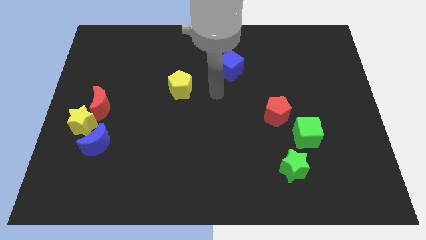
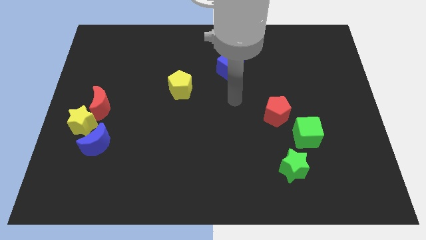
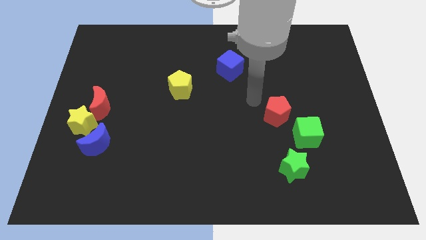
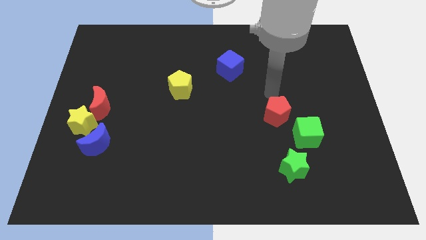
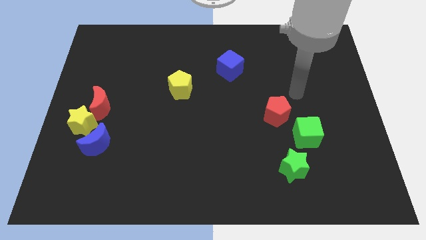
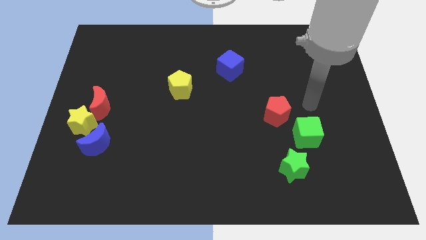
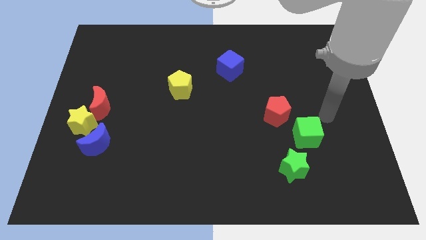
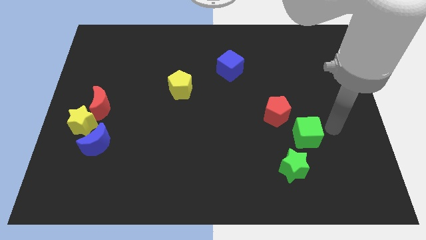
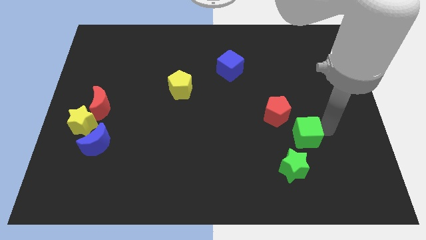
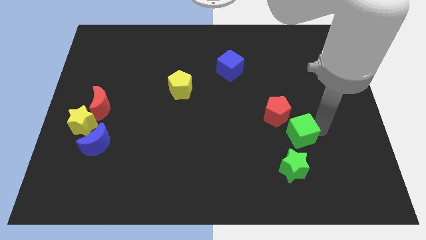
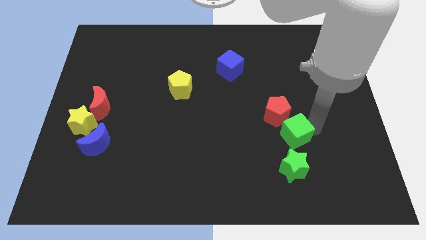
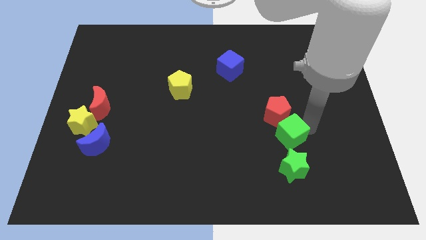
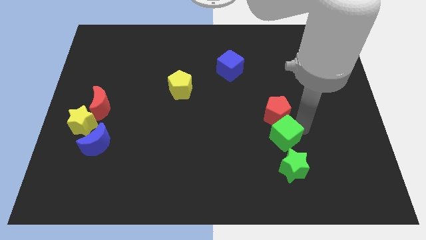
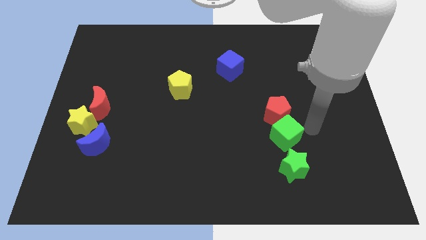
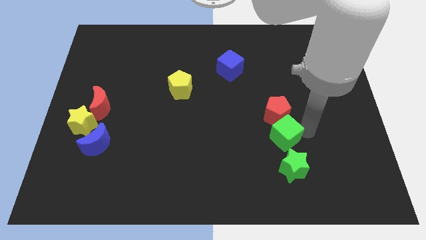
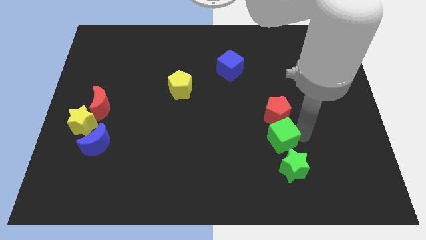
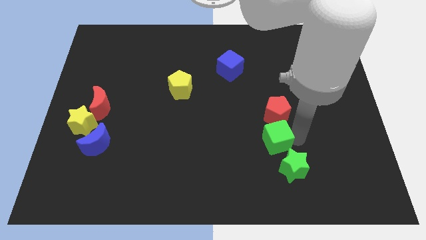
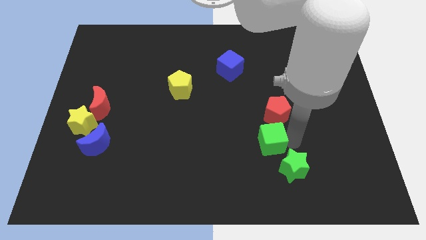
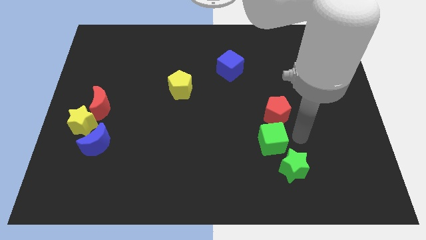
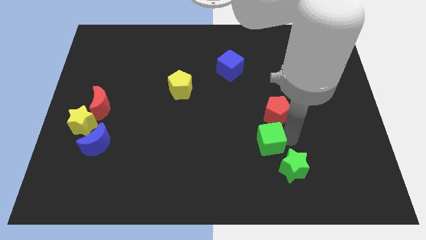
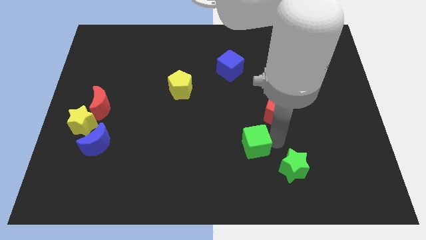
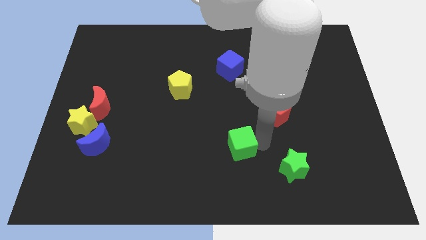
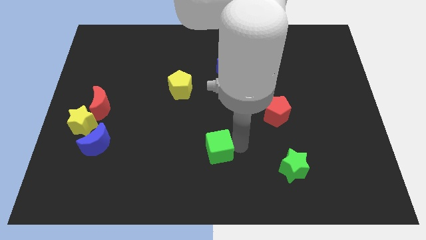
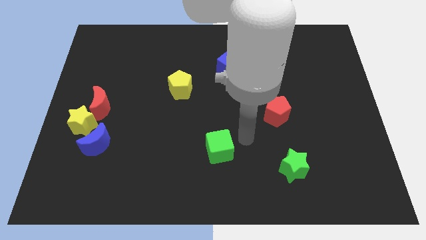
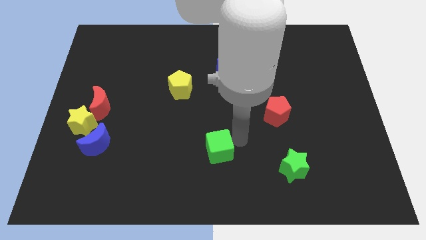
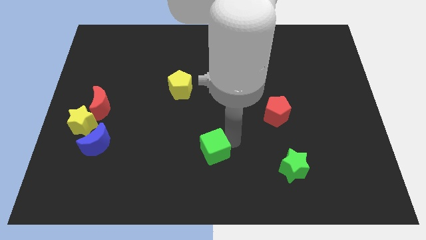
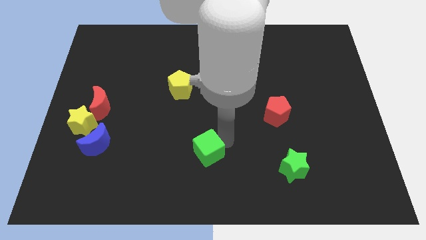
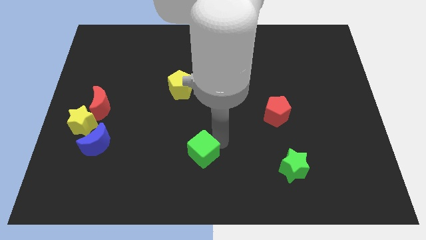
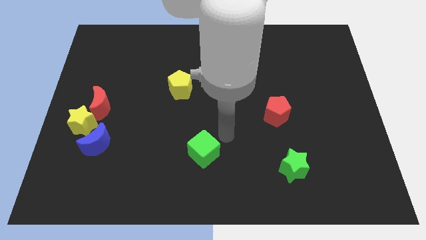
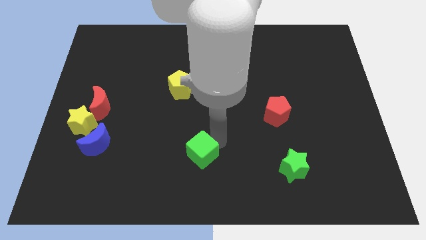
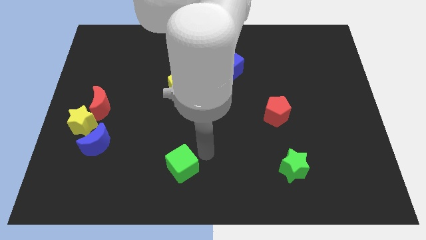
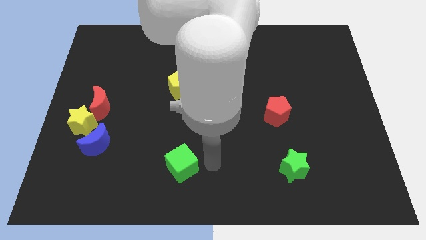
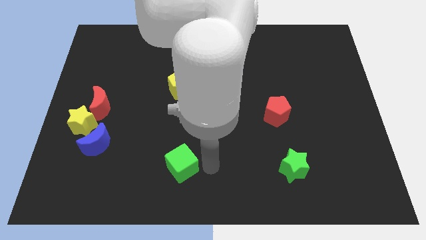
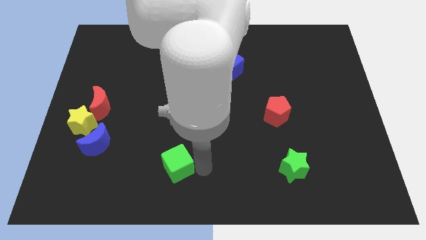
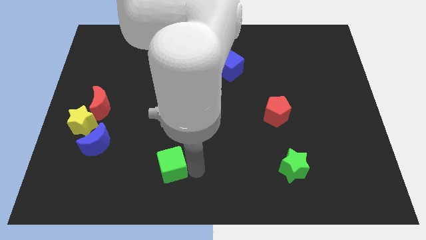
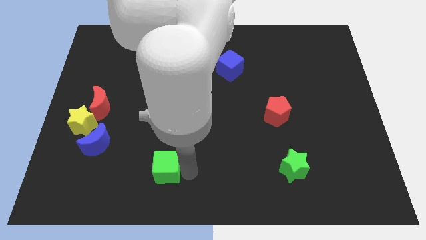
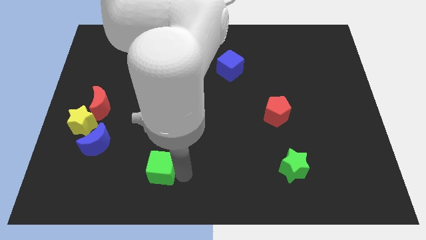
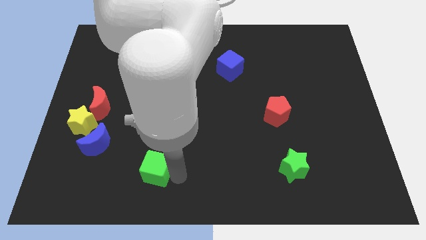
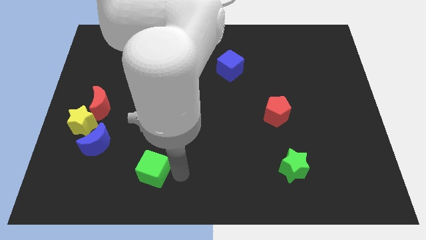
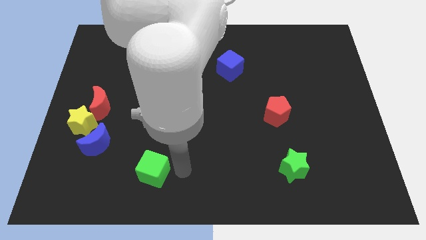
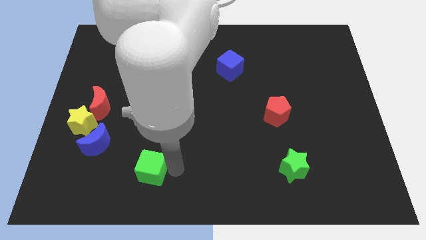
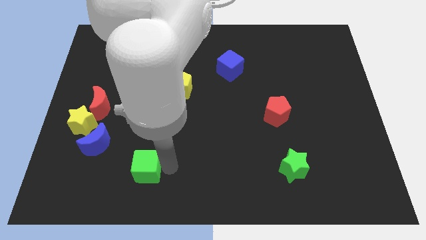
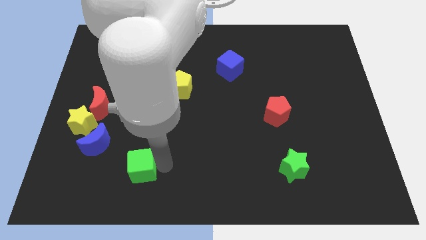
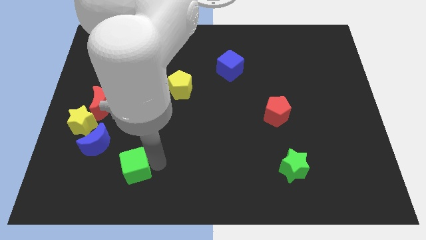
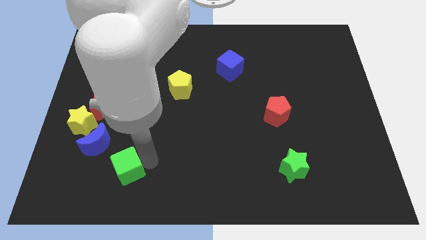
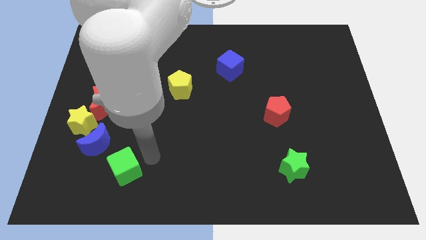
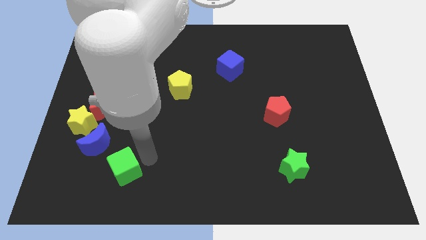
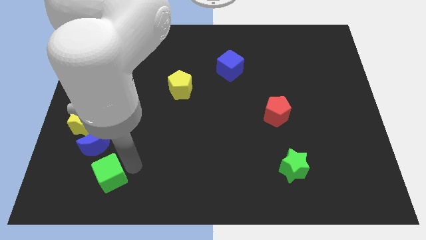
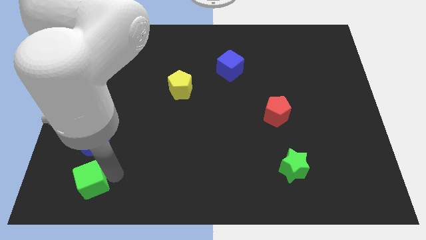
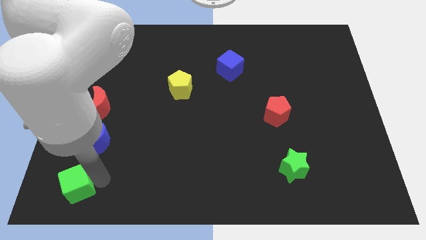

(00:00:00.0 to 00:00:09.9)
move the green cube to the bottom left of the board

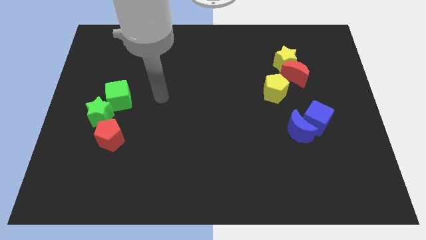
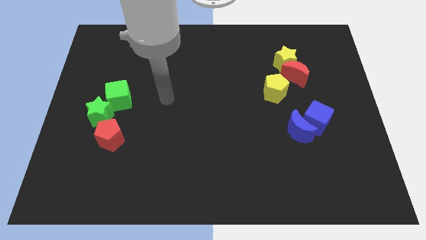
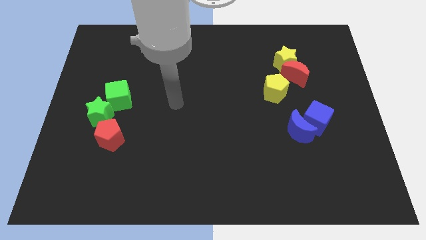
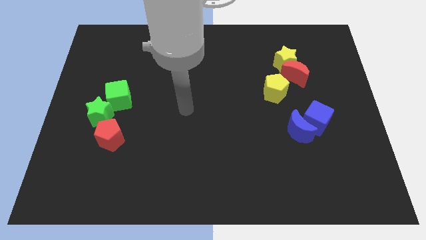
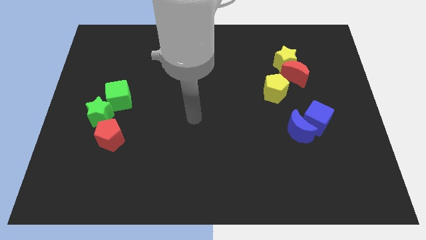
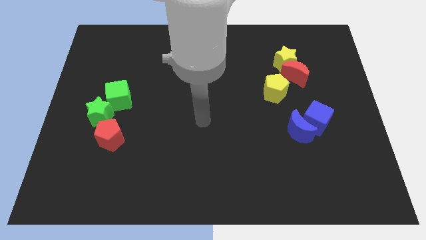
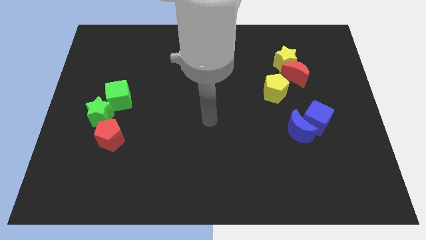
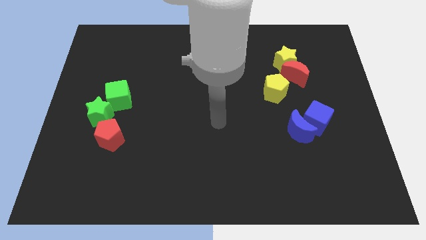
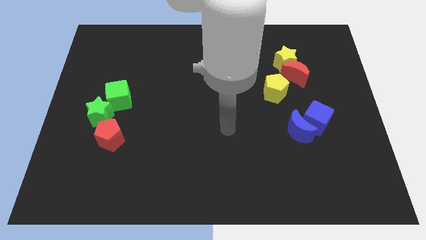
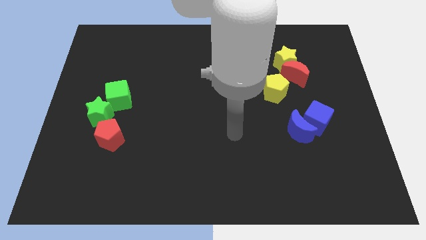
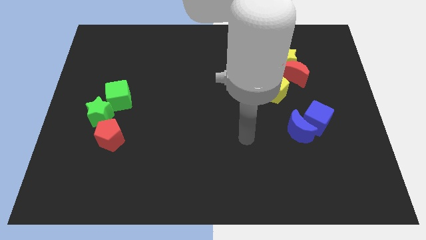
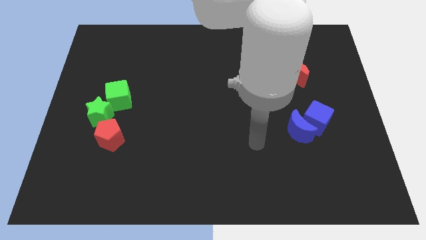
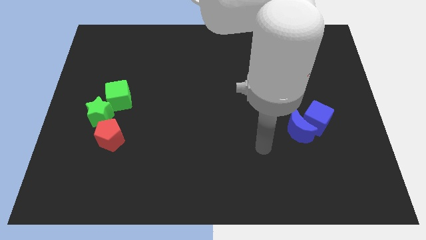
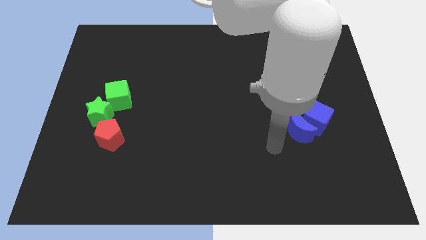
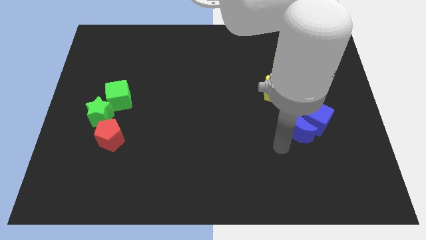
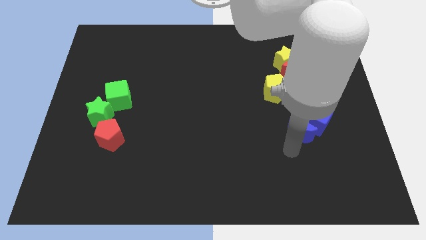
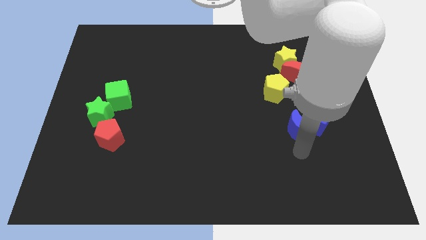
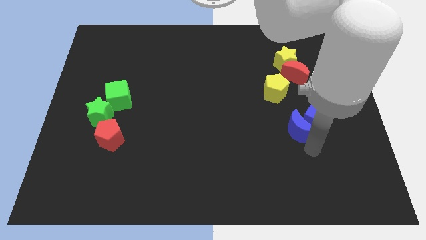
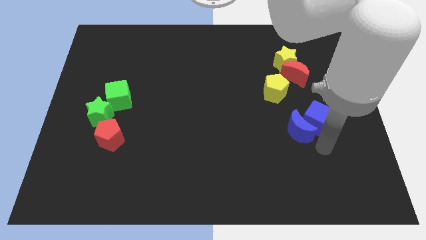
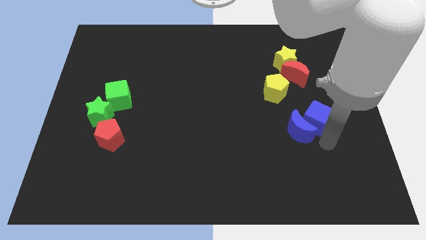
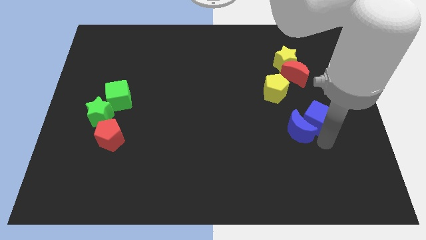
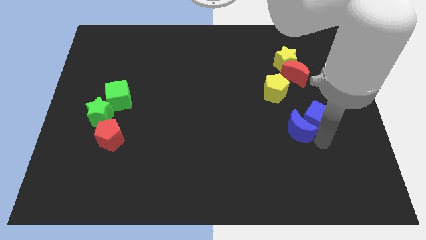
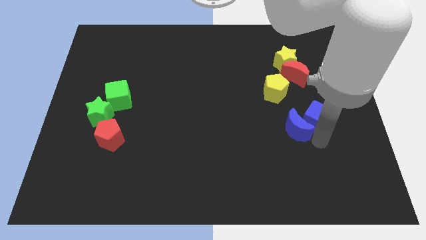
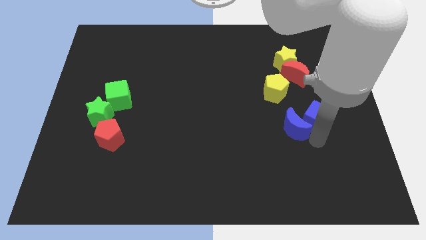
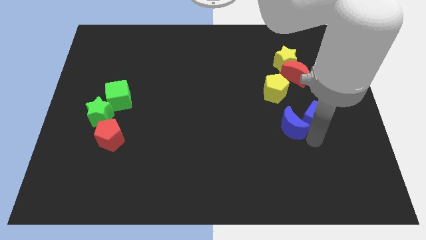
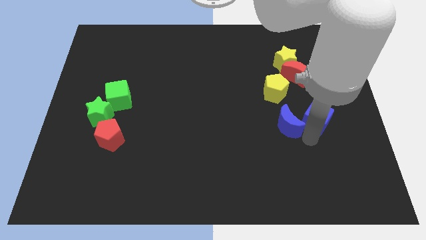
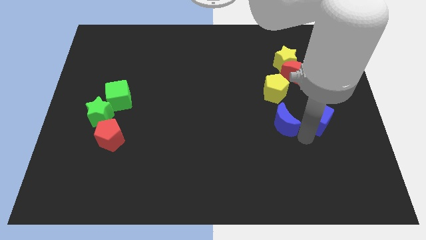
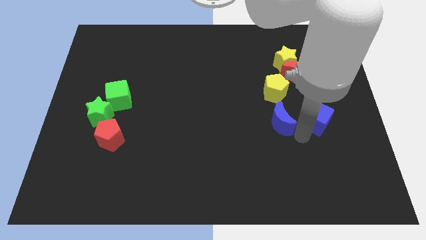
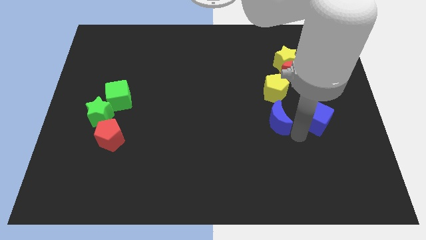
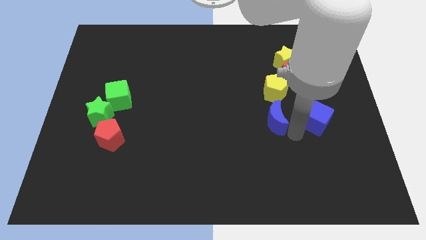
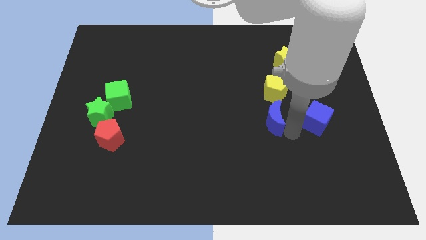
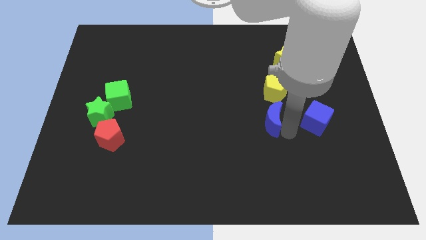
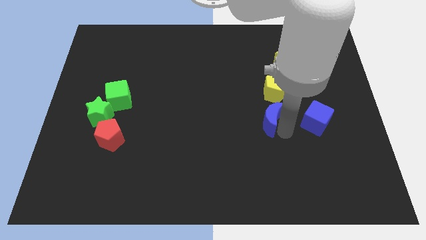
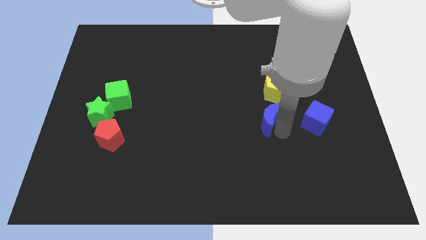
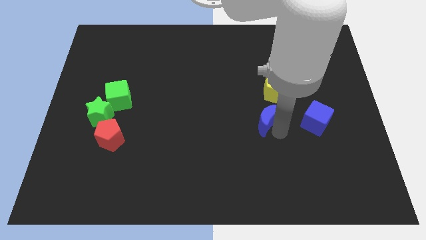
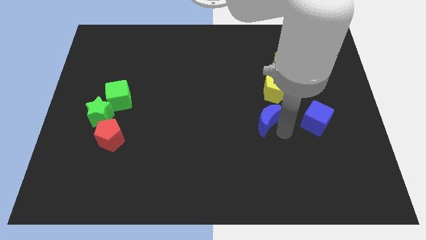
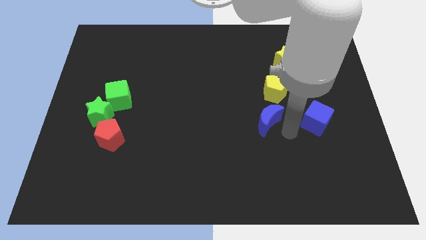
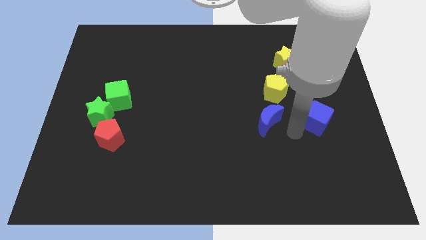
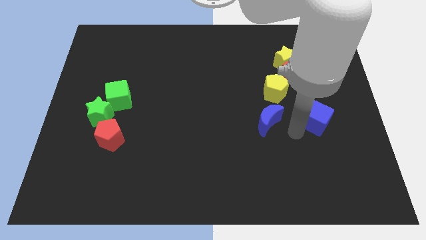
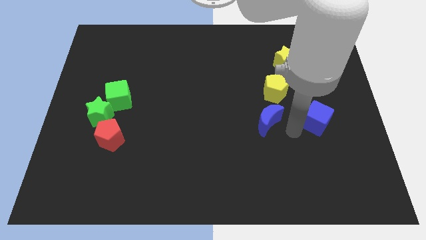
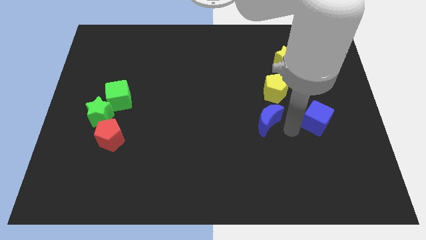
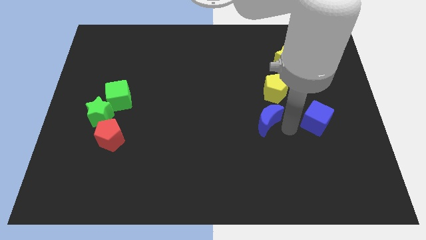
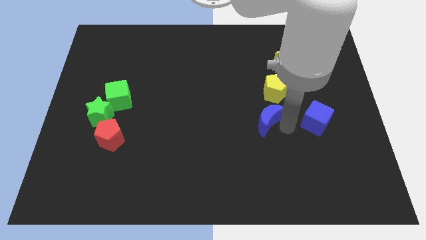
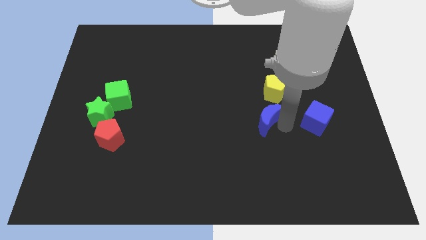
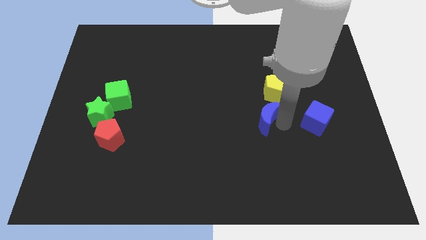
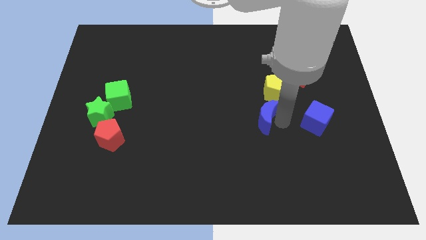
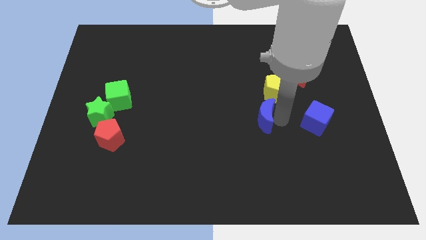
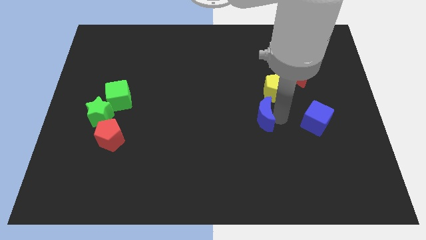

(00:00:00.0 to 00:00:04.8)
slide the blue moon to the middle of the board
